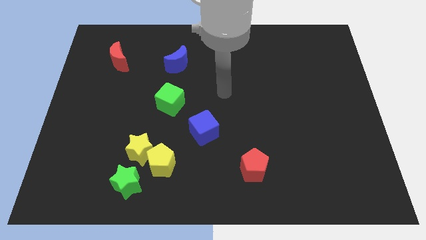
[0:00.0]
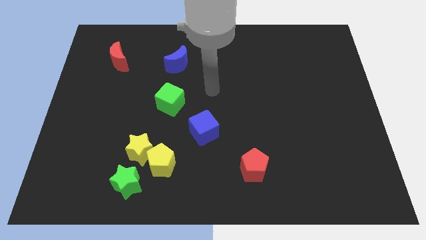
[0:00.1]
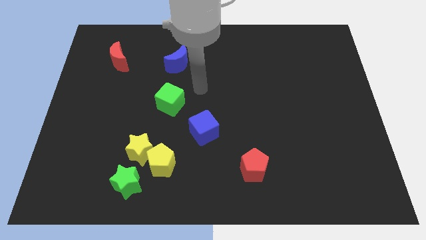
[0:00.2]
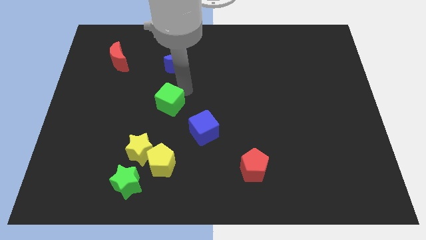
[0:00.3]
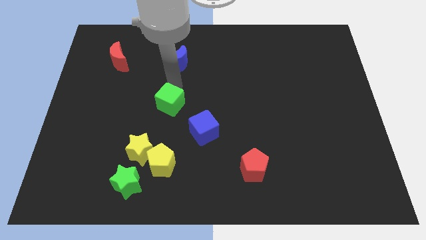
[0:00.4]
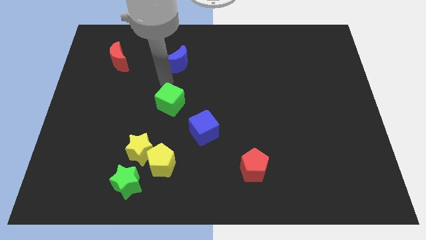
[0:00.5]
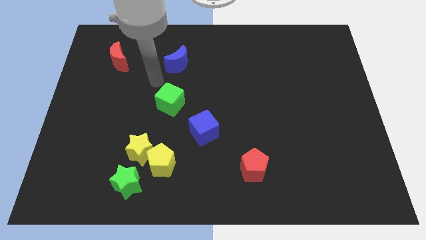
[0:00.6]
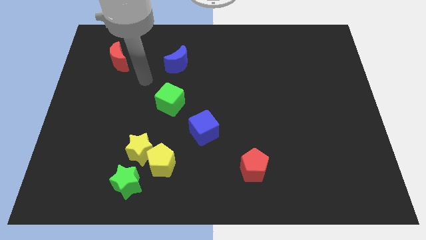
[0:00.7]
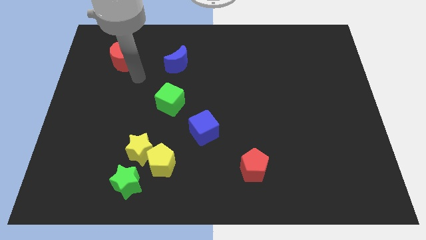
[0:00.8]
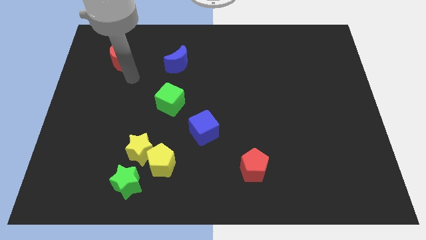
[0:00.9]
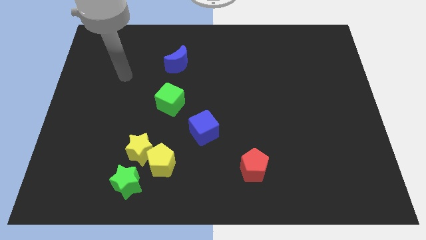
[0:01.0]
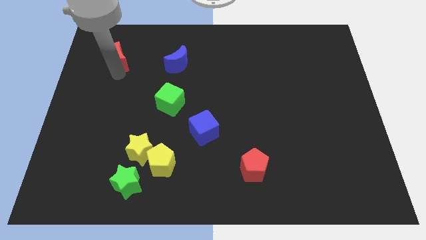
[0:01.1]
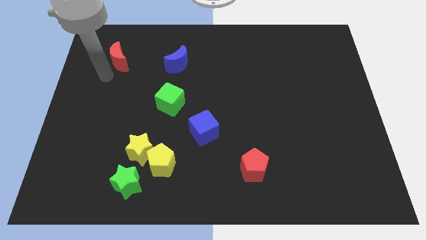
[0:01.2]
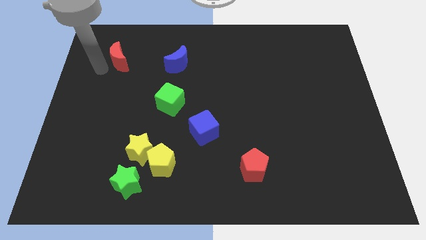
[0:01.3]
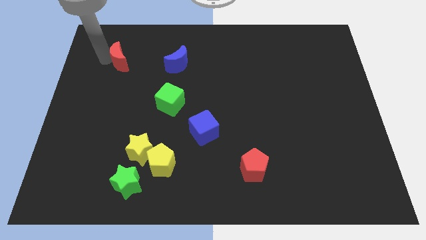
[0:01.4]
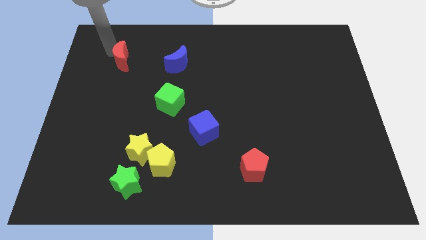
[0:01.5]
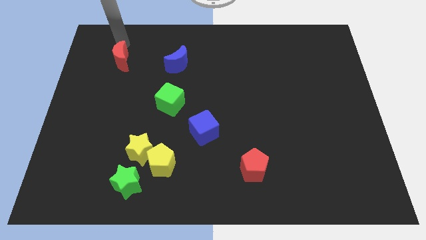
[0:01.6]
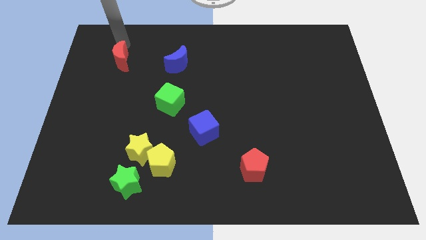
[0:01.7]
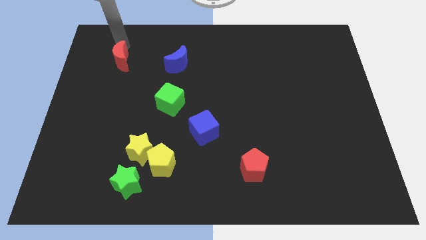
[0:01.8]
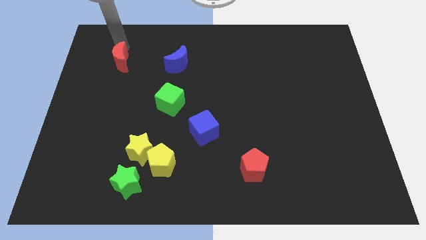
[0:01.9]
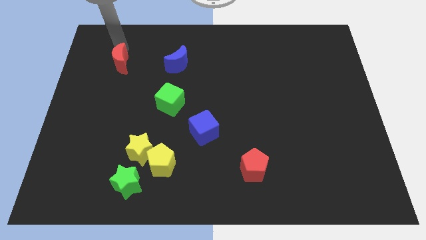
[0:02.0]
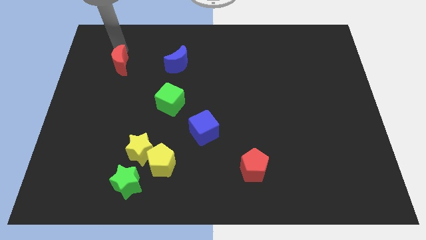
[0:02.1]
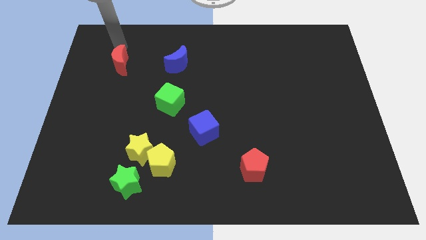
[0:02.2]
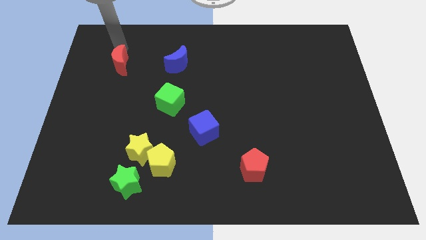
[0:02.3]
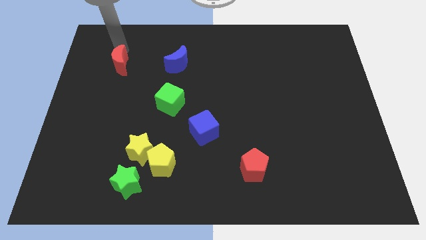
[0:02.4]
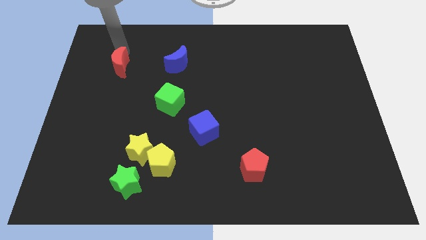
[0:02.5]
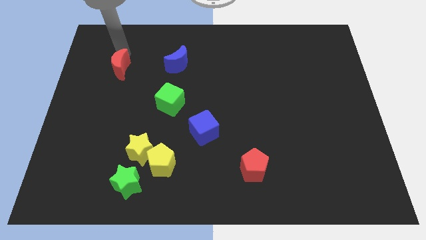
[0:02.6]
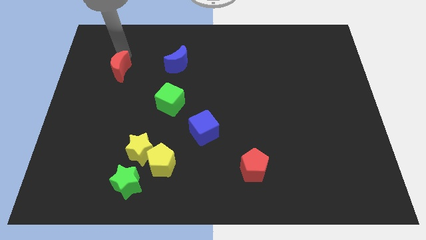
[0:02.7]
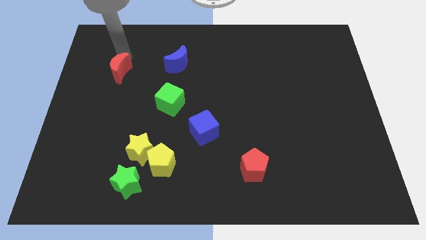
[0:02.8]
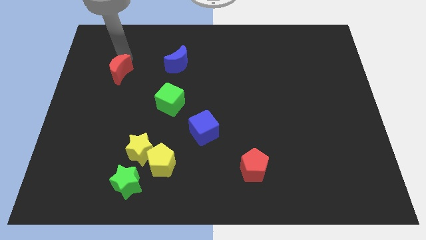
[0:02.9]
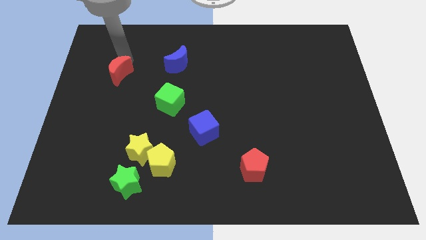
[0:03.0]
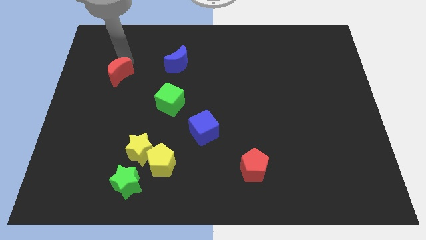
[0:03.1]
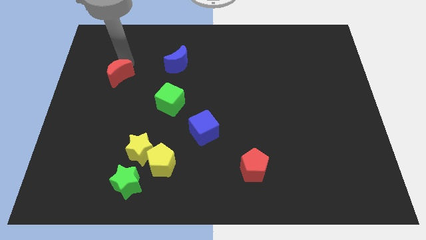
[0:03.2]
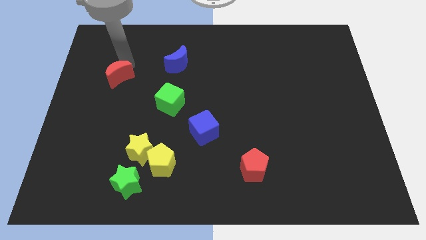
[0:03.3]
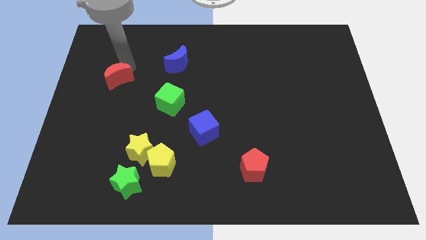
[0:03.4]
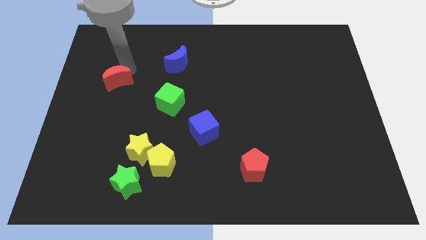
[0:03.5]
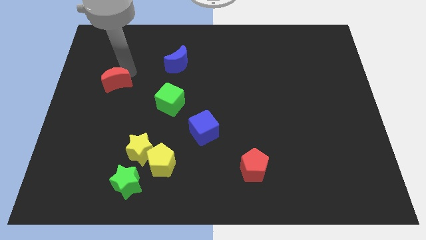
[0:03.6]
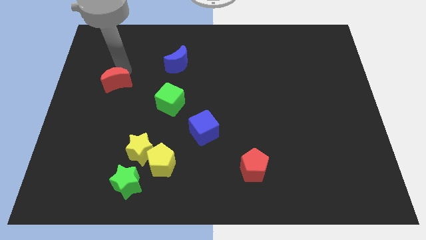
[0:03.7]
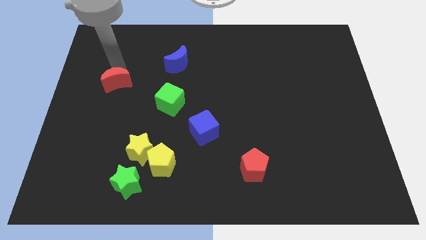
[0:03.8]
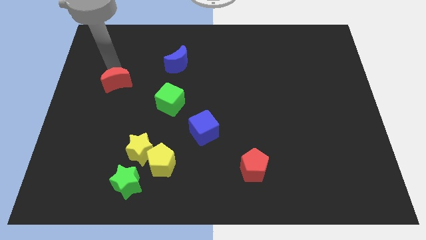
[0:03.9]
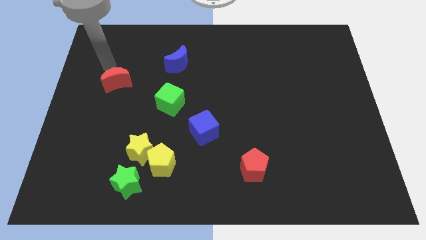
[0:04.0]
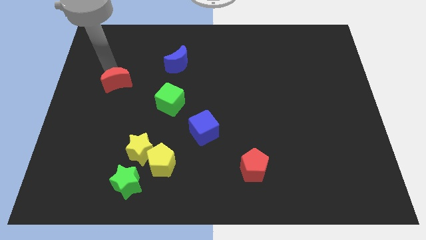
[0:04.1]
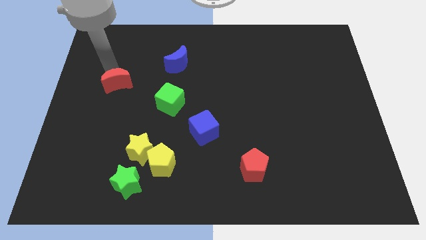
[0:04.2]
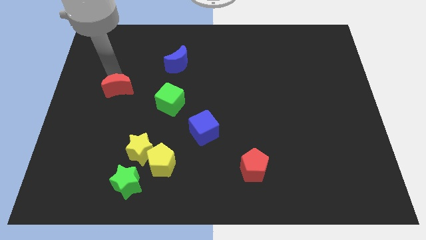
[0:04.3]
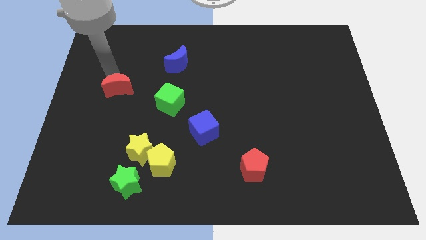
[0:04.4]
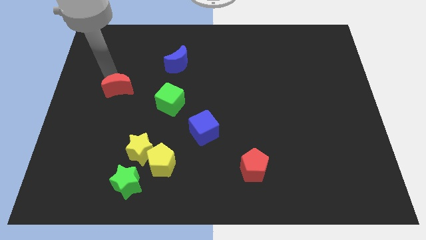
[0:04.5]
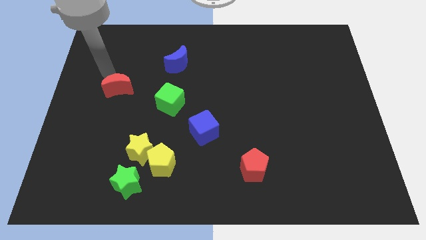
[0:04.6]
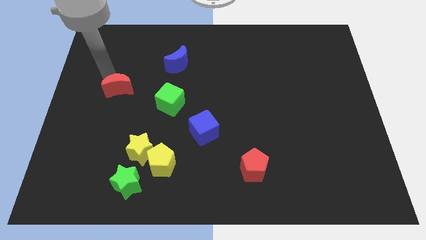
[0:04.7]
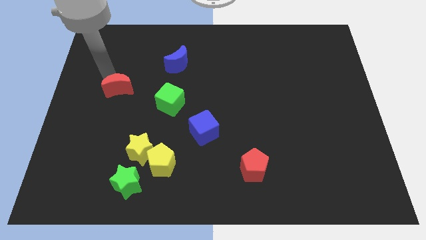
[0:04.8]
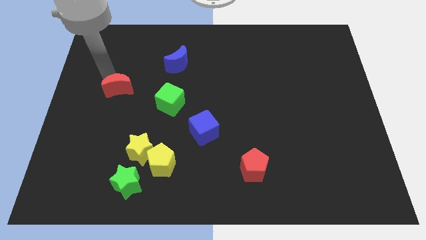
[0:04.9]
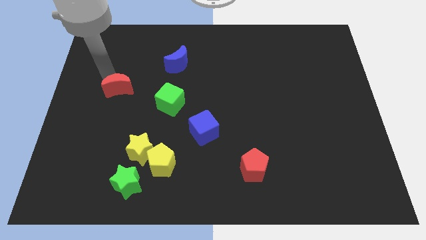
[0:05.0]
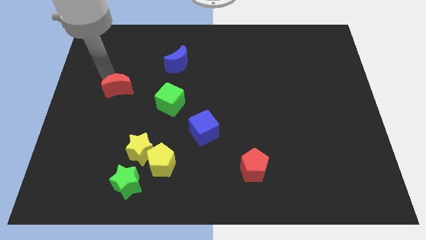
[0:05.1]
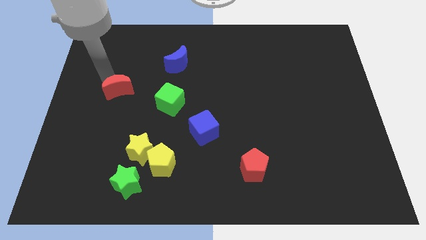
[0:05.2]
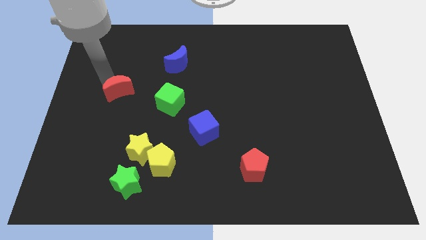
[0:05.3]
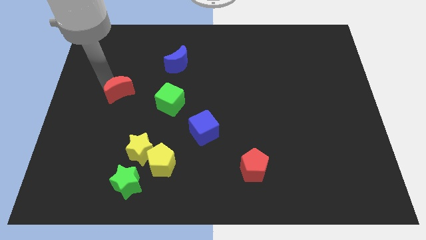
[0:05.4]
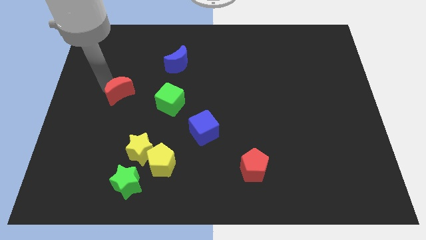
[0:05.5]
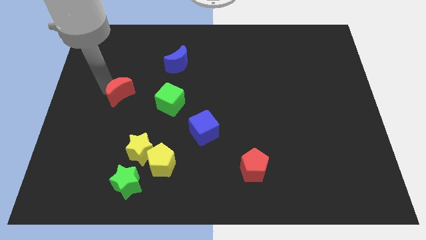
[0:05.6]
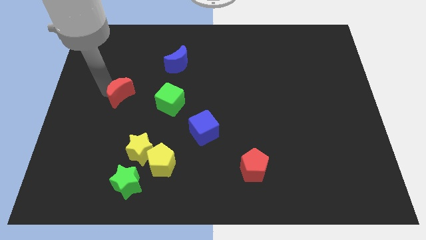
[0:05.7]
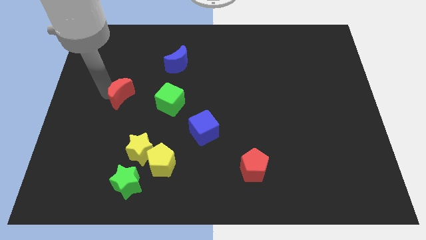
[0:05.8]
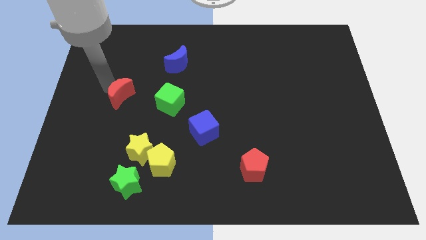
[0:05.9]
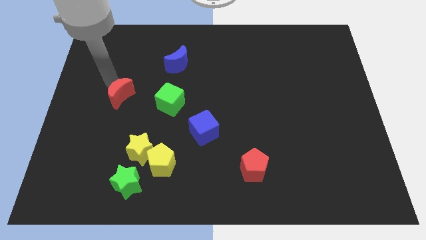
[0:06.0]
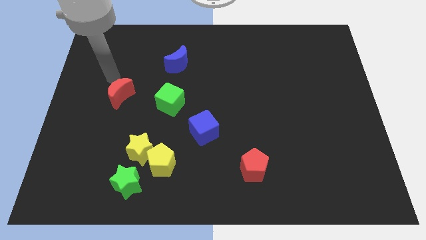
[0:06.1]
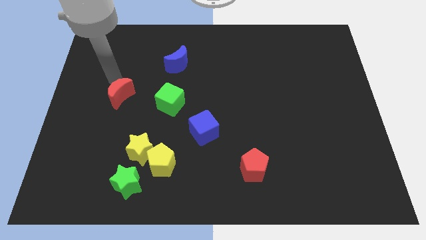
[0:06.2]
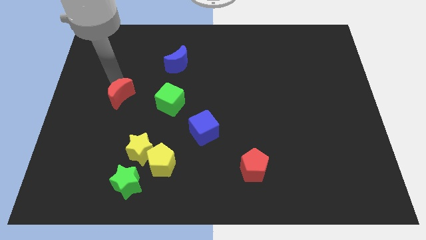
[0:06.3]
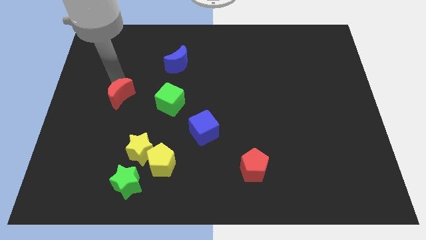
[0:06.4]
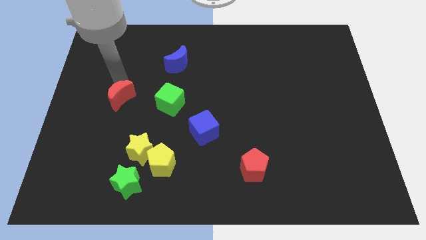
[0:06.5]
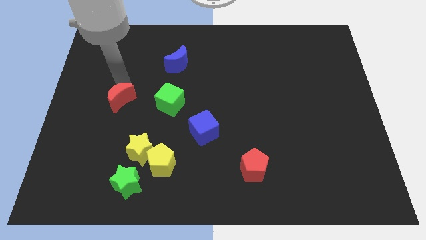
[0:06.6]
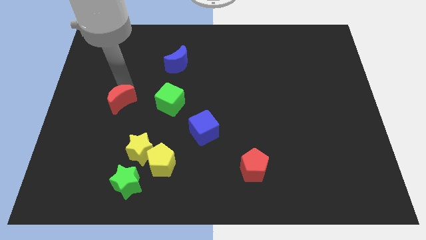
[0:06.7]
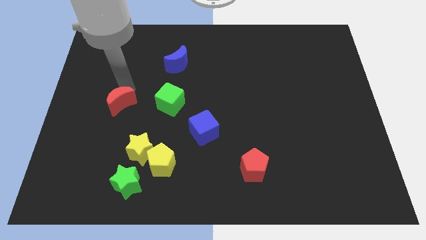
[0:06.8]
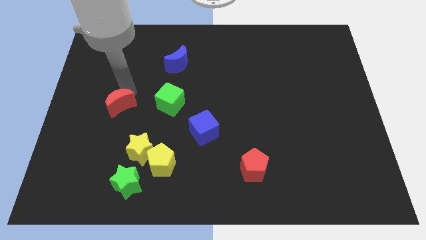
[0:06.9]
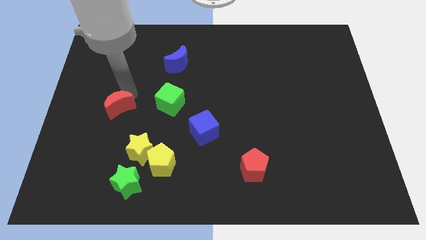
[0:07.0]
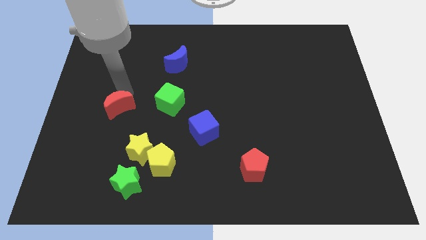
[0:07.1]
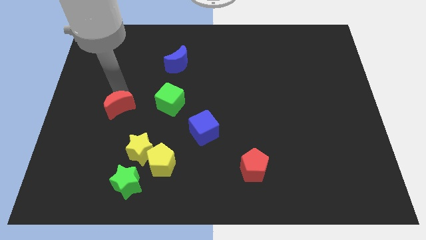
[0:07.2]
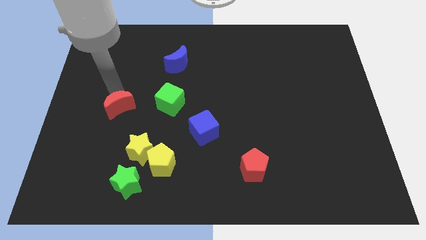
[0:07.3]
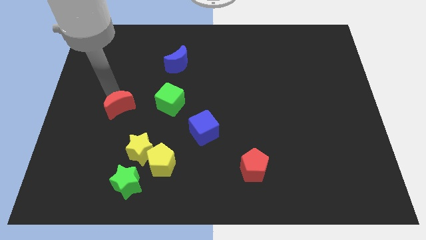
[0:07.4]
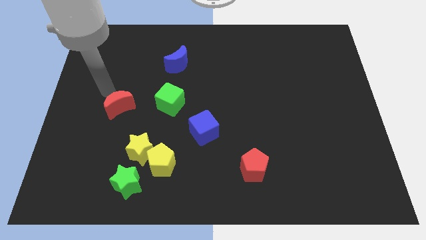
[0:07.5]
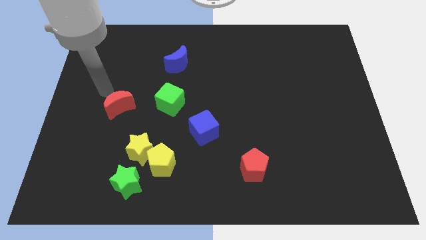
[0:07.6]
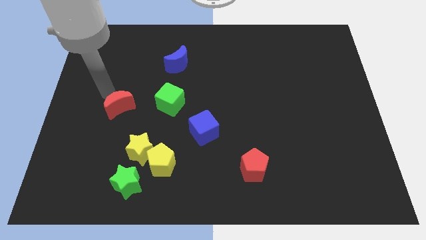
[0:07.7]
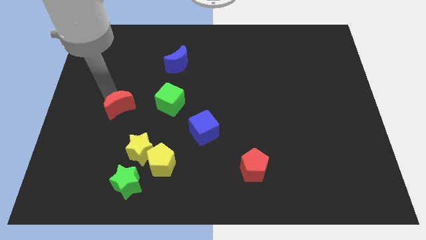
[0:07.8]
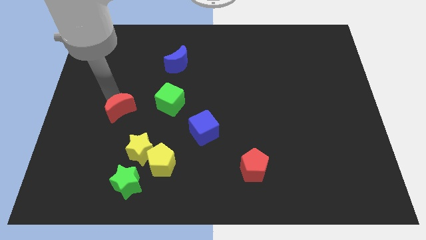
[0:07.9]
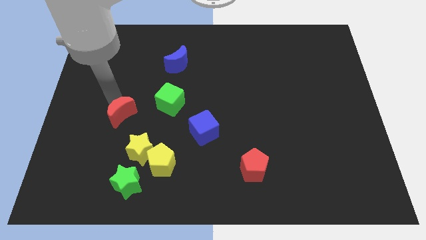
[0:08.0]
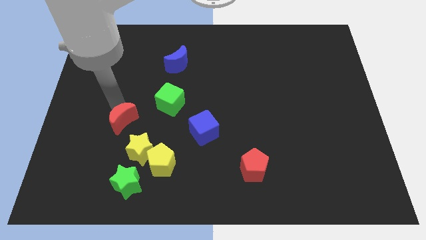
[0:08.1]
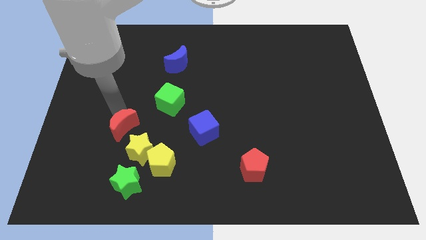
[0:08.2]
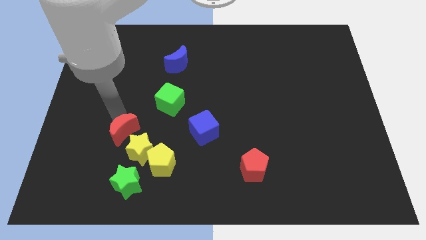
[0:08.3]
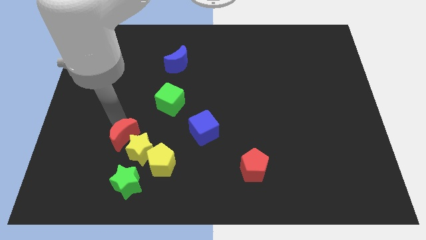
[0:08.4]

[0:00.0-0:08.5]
slide the red moon to the yellow star
